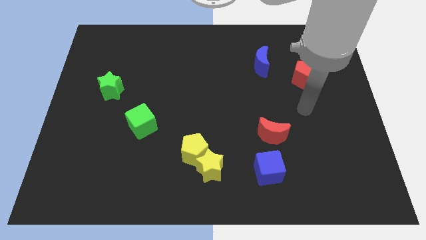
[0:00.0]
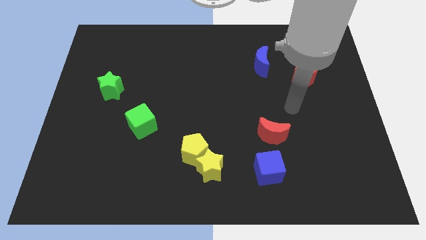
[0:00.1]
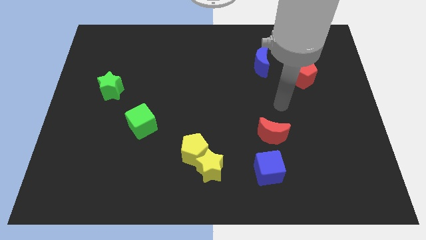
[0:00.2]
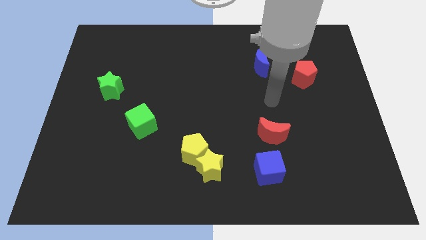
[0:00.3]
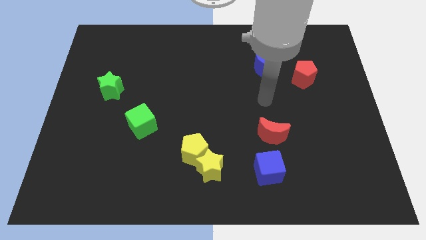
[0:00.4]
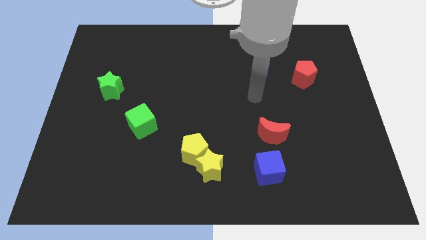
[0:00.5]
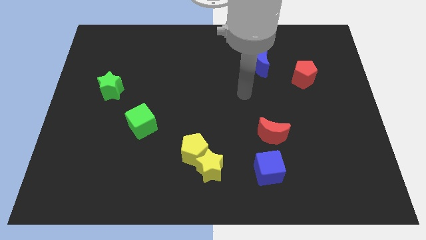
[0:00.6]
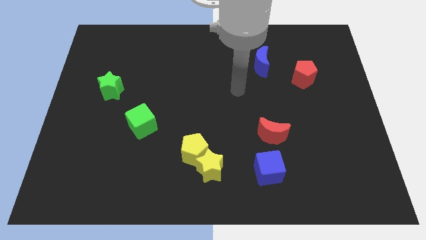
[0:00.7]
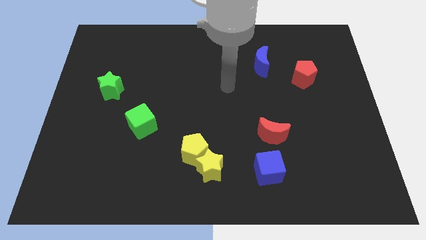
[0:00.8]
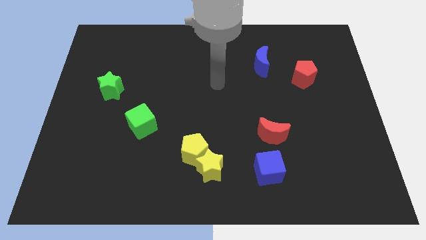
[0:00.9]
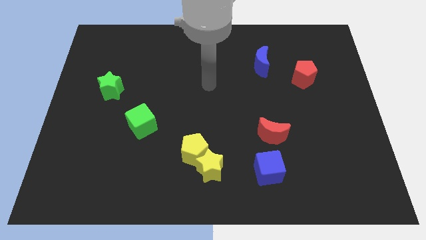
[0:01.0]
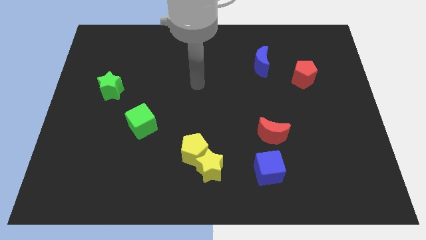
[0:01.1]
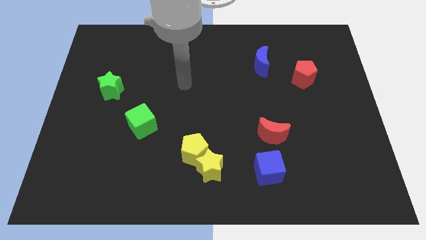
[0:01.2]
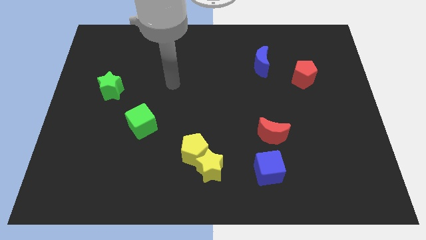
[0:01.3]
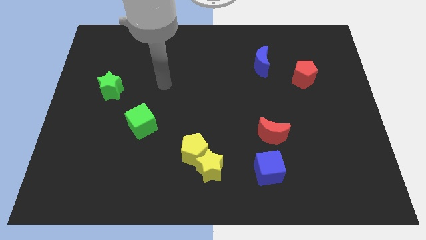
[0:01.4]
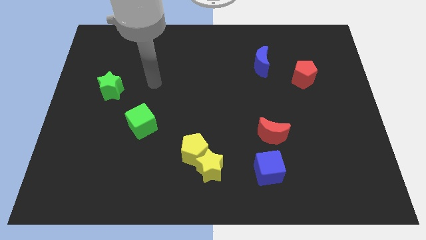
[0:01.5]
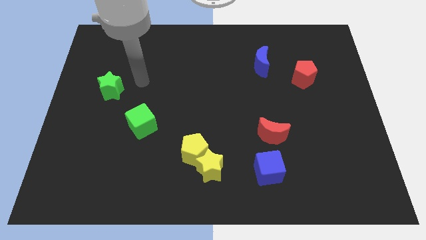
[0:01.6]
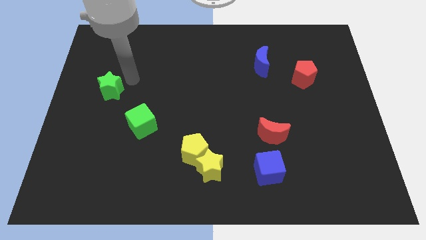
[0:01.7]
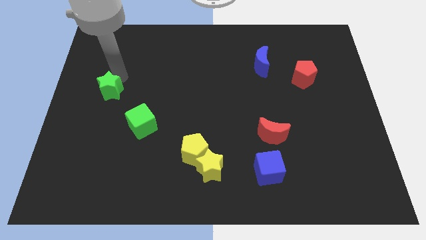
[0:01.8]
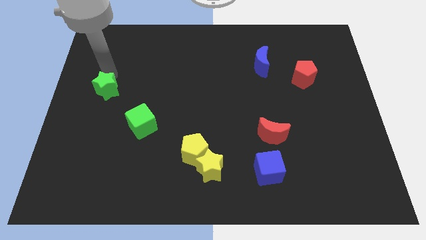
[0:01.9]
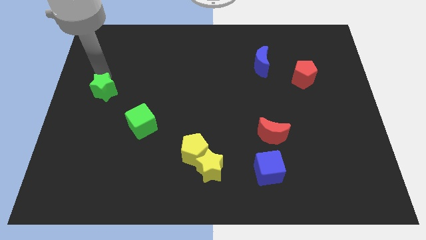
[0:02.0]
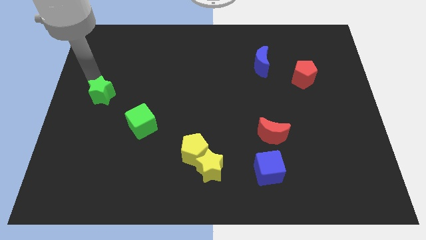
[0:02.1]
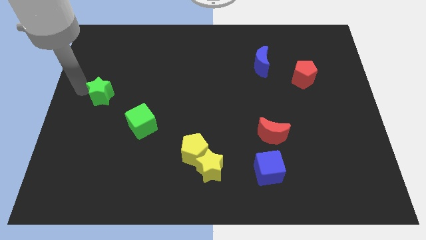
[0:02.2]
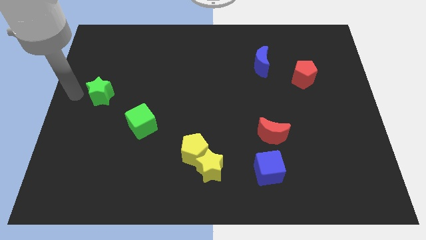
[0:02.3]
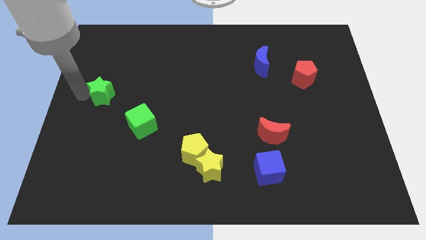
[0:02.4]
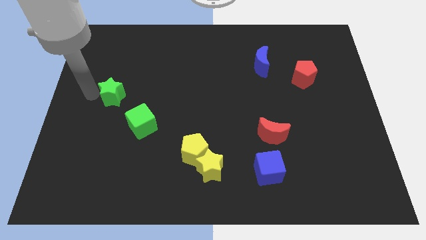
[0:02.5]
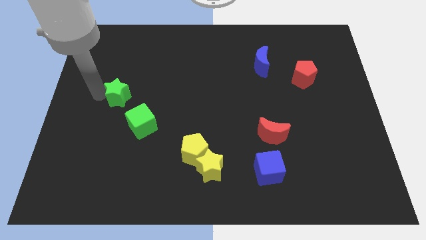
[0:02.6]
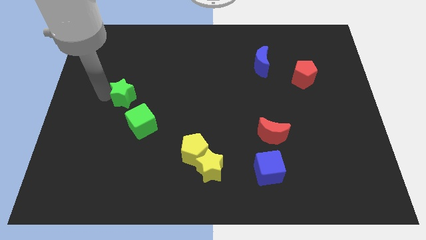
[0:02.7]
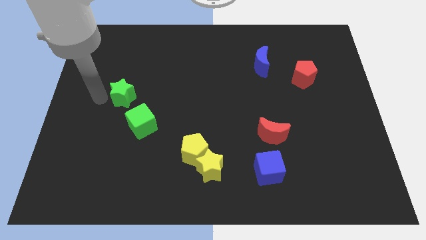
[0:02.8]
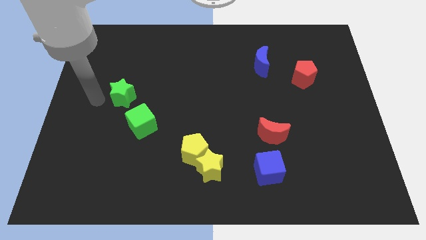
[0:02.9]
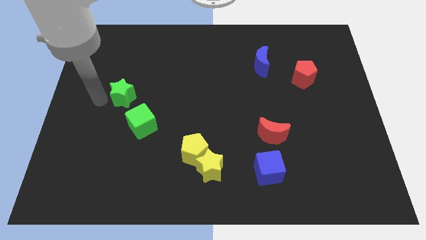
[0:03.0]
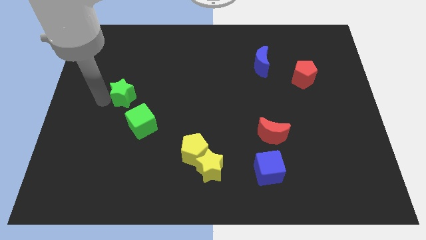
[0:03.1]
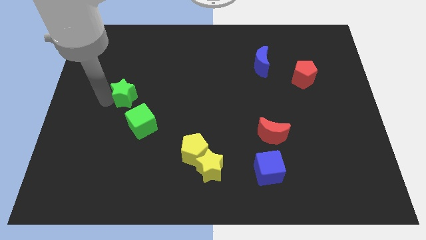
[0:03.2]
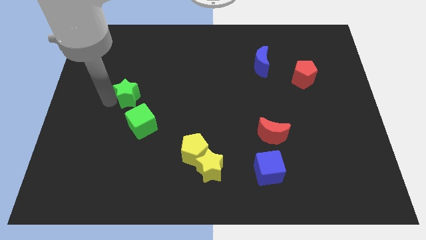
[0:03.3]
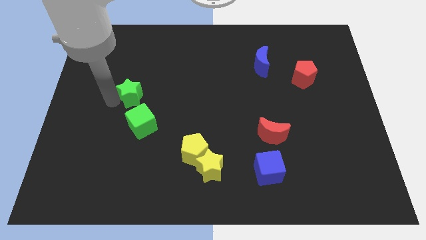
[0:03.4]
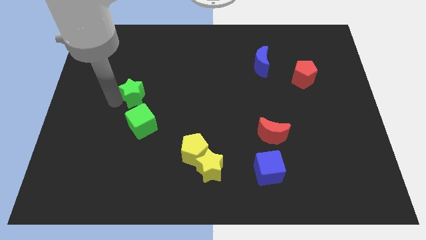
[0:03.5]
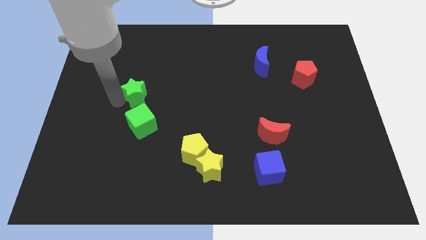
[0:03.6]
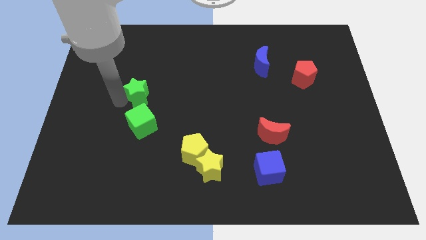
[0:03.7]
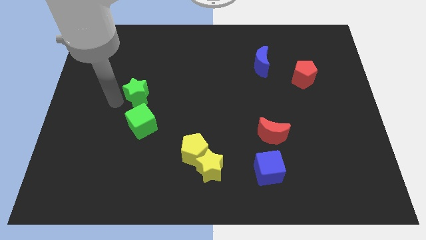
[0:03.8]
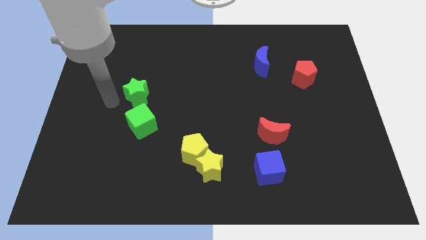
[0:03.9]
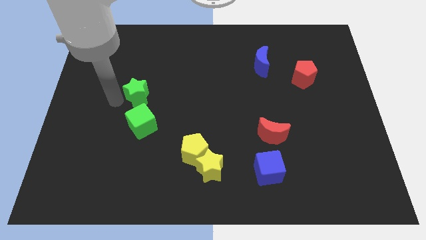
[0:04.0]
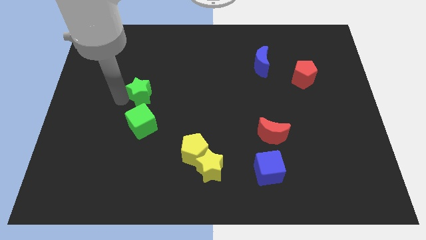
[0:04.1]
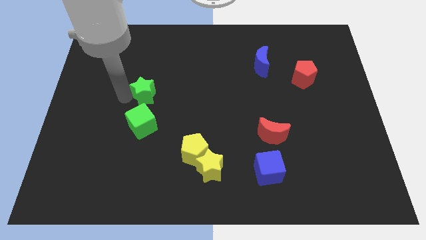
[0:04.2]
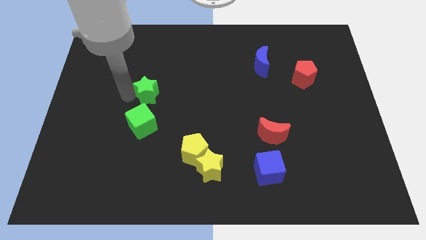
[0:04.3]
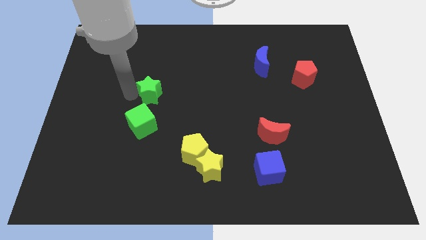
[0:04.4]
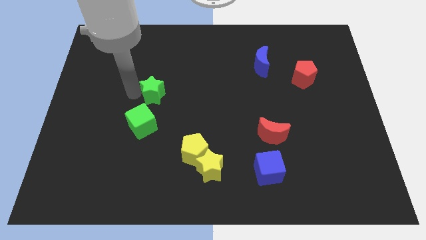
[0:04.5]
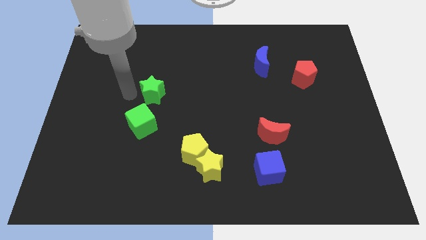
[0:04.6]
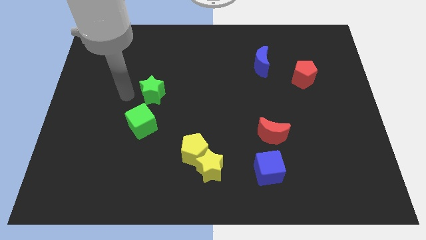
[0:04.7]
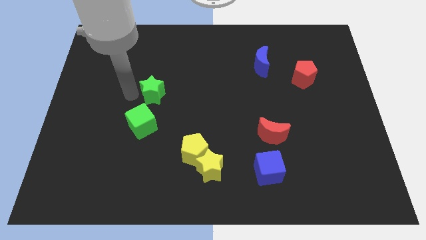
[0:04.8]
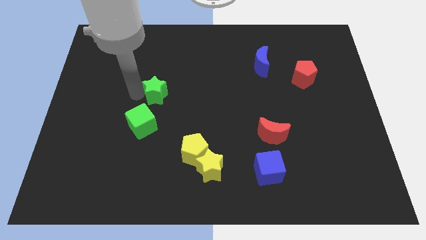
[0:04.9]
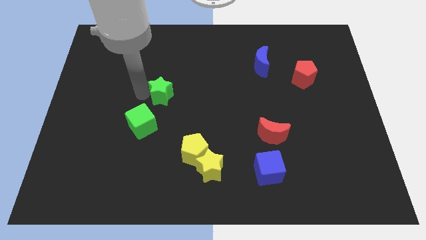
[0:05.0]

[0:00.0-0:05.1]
move the green star to the middle of the board

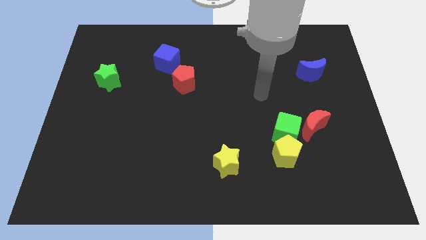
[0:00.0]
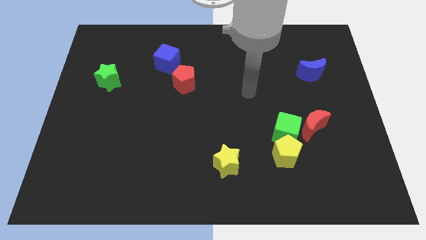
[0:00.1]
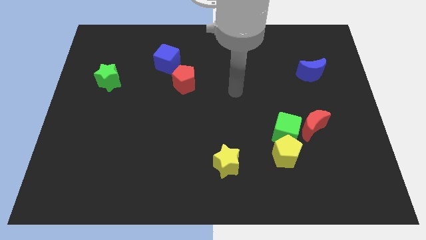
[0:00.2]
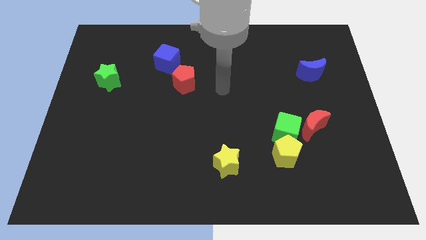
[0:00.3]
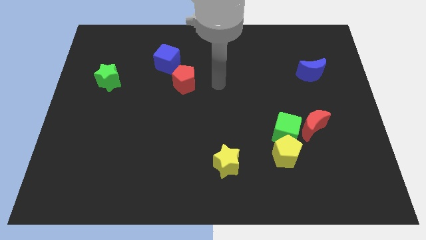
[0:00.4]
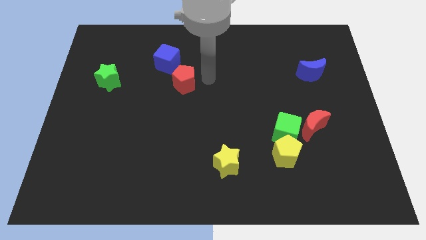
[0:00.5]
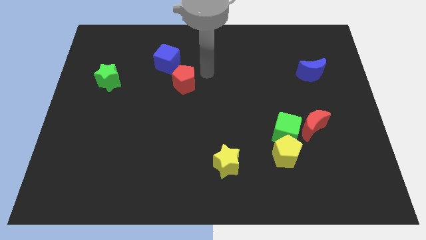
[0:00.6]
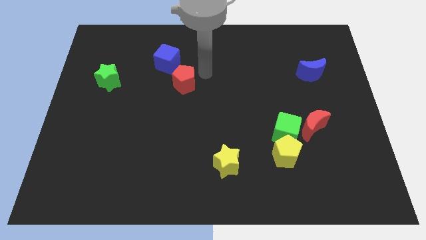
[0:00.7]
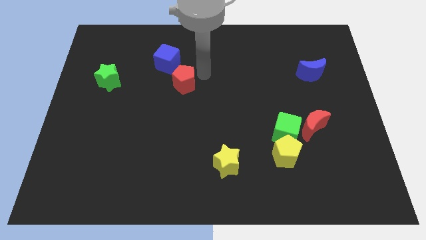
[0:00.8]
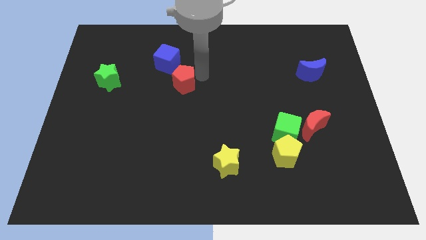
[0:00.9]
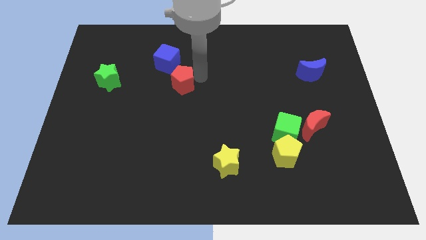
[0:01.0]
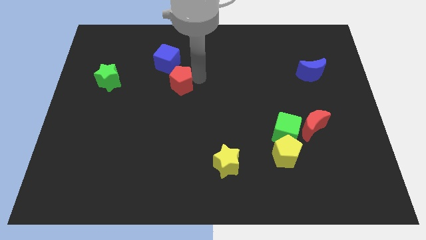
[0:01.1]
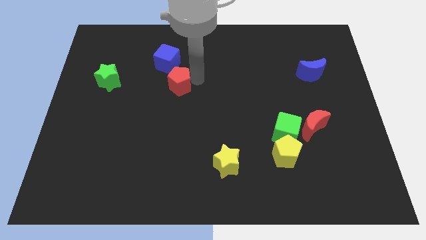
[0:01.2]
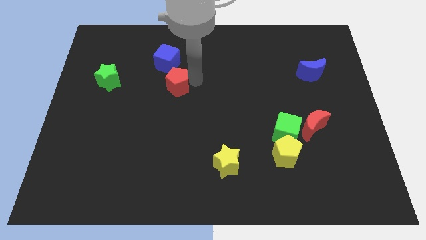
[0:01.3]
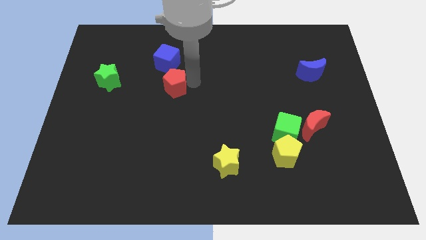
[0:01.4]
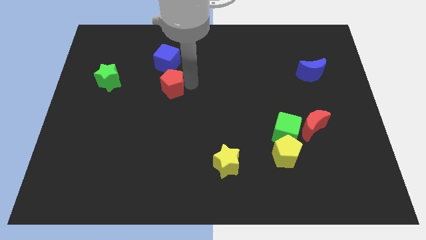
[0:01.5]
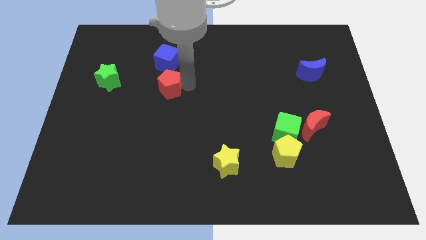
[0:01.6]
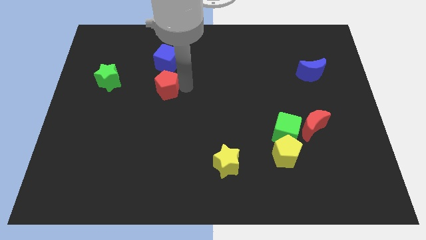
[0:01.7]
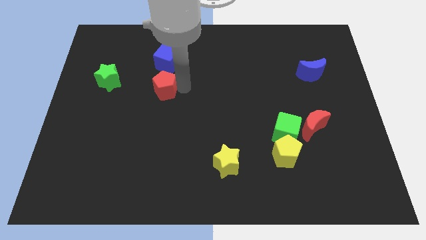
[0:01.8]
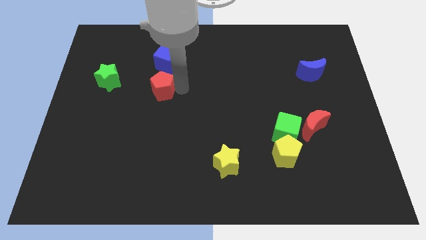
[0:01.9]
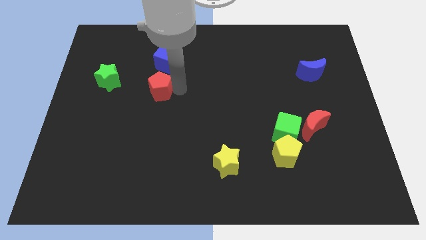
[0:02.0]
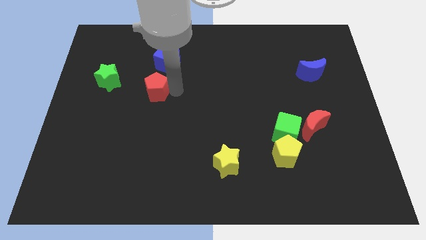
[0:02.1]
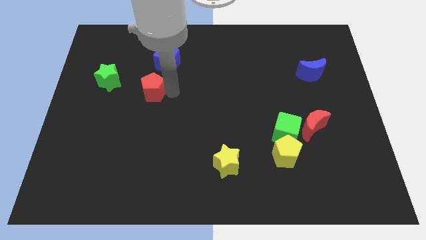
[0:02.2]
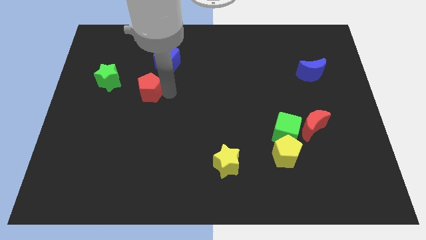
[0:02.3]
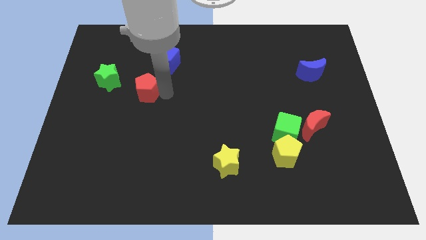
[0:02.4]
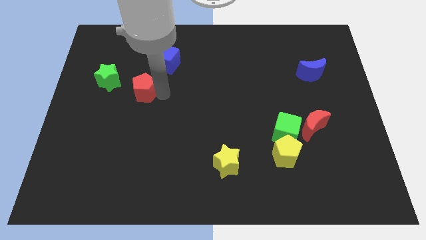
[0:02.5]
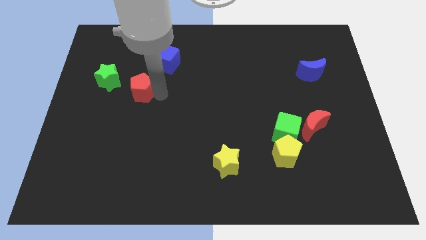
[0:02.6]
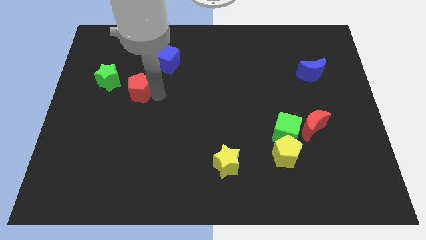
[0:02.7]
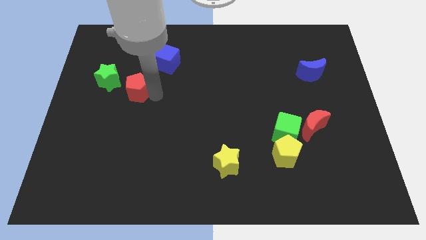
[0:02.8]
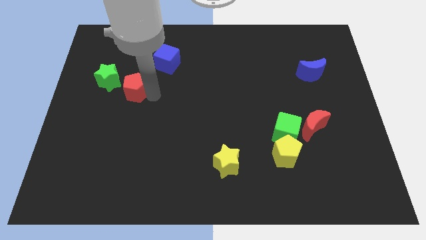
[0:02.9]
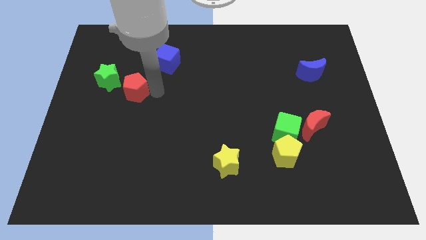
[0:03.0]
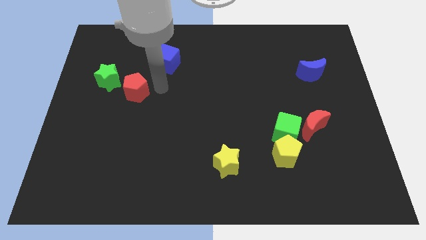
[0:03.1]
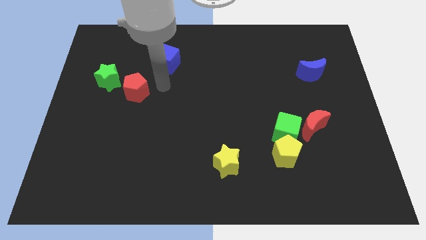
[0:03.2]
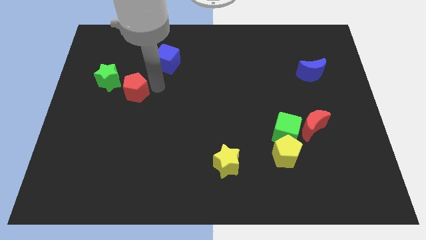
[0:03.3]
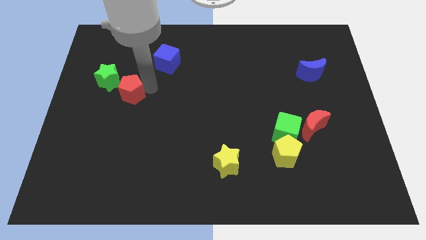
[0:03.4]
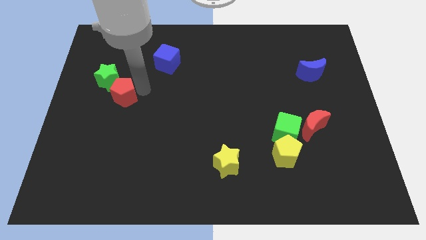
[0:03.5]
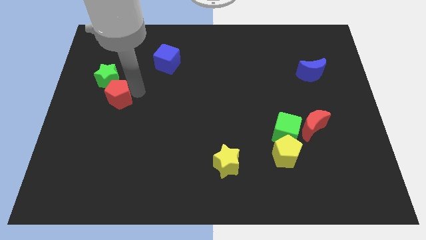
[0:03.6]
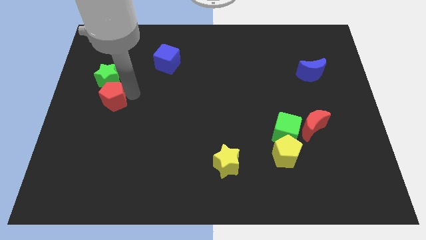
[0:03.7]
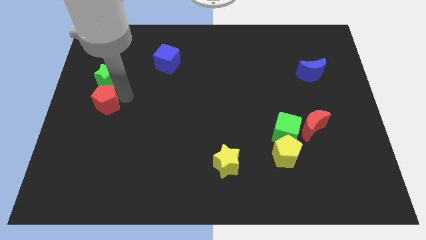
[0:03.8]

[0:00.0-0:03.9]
push the red pentagon to the left side of the board
